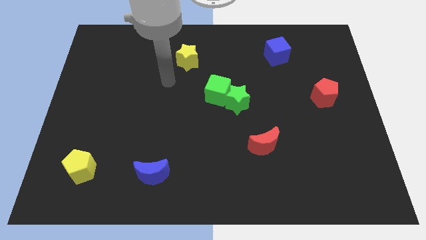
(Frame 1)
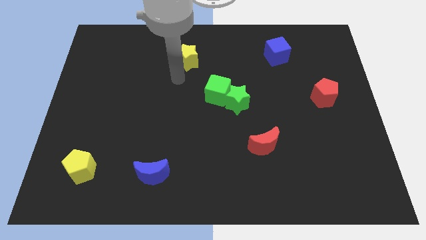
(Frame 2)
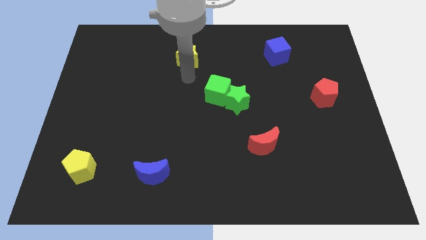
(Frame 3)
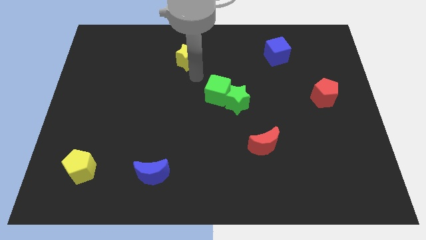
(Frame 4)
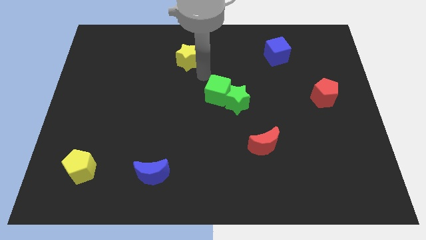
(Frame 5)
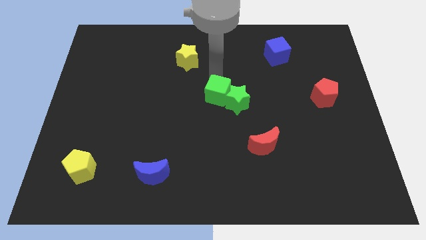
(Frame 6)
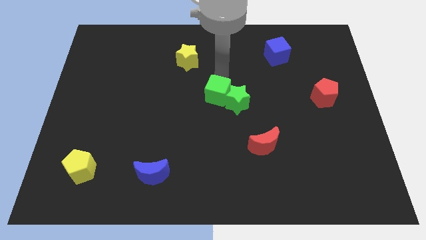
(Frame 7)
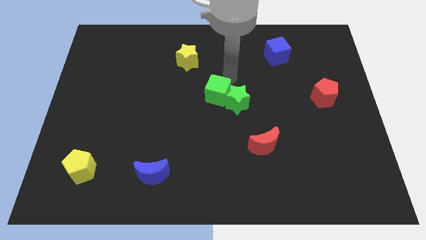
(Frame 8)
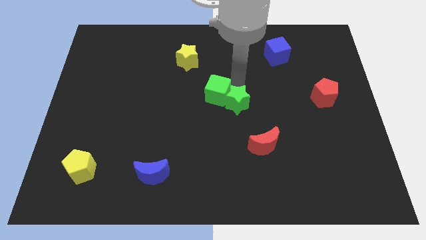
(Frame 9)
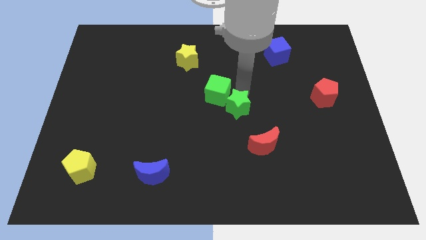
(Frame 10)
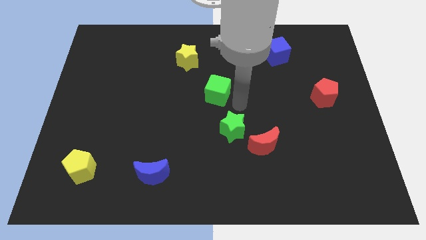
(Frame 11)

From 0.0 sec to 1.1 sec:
separate the green cube from the green star

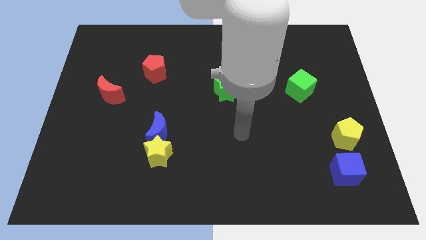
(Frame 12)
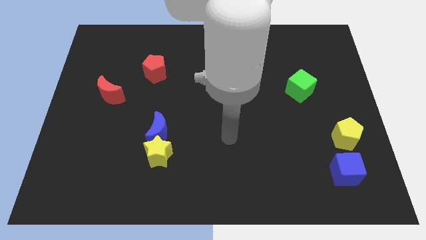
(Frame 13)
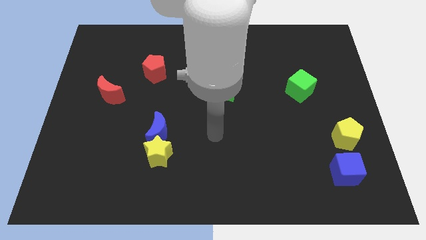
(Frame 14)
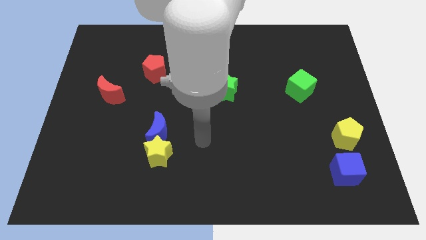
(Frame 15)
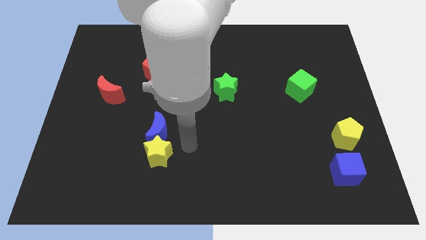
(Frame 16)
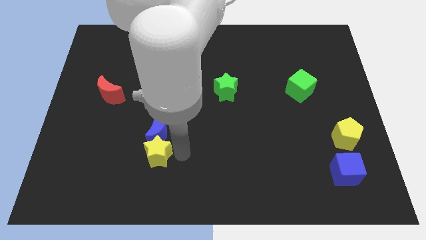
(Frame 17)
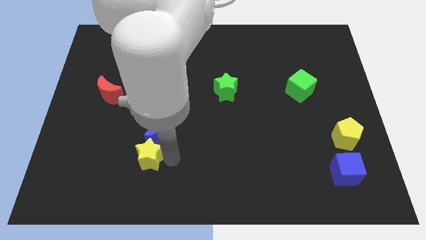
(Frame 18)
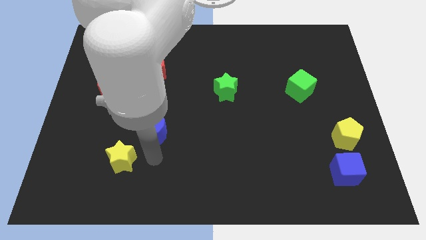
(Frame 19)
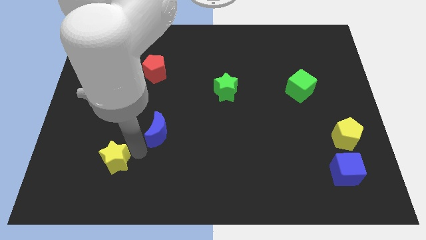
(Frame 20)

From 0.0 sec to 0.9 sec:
pull the blue moon apart from the yellow star

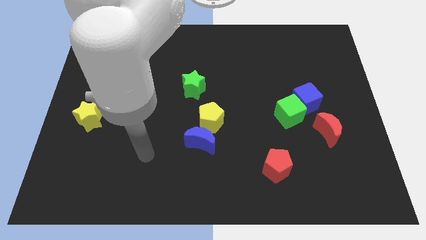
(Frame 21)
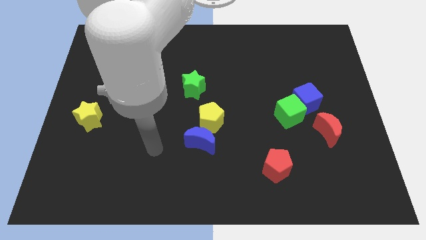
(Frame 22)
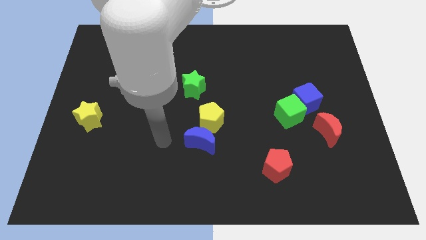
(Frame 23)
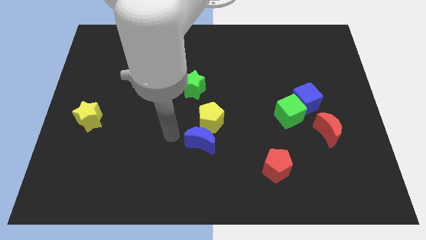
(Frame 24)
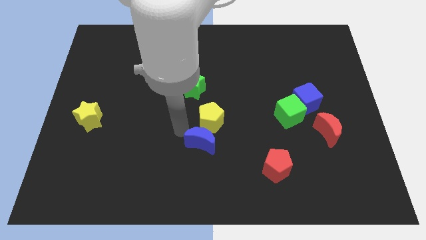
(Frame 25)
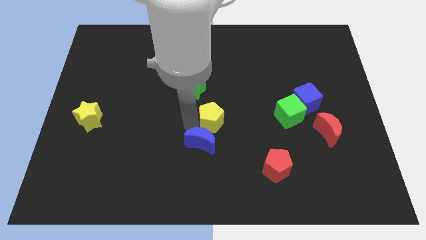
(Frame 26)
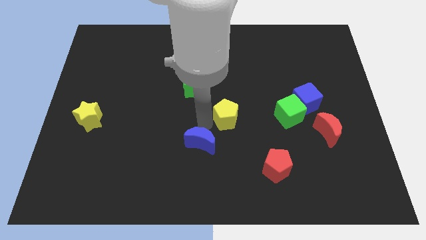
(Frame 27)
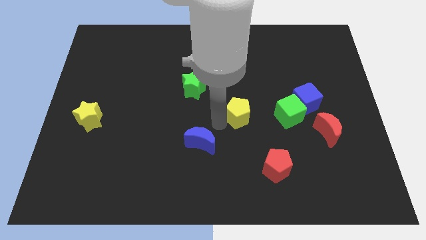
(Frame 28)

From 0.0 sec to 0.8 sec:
pull the blue moon apart from the yellow pentagon

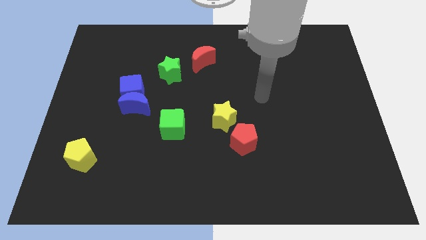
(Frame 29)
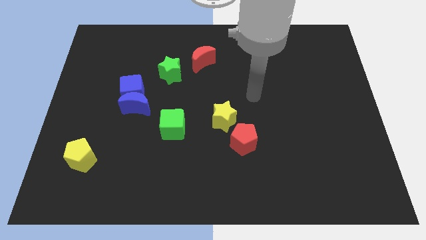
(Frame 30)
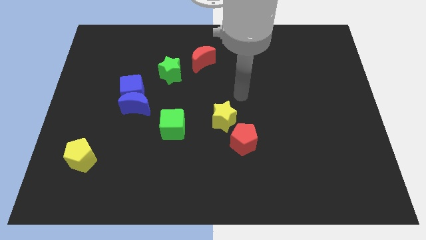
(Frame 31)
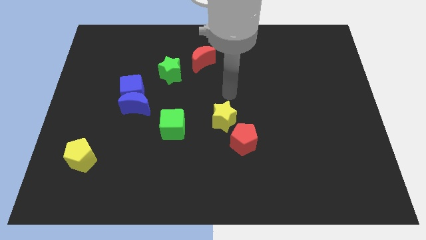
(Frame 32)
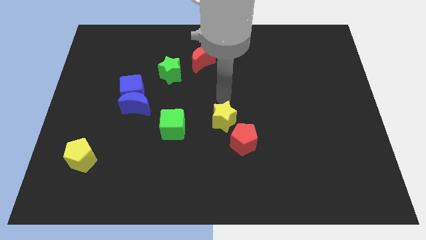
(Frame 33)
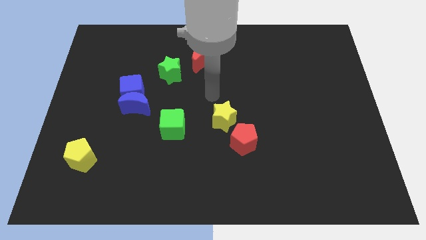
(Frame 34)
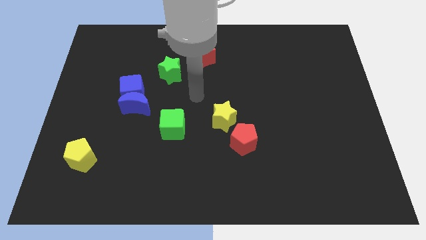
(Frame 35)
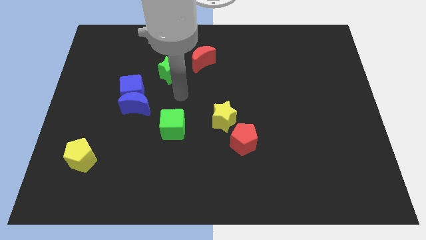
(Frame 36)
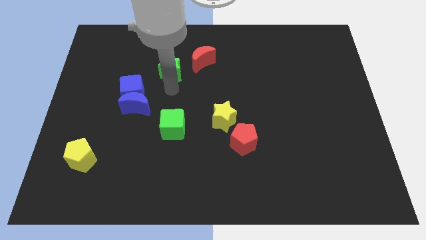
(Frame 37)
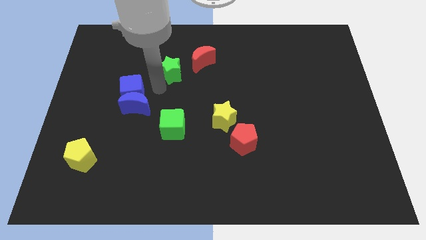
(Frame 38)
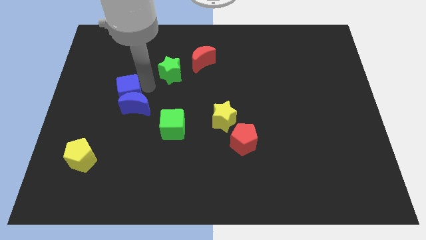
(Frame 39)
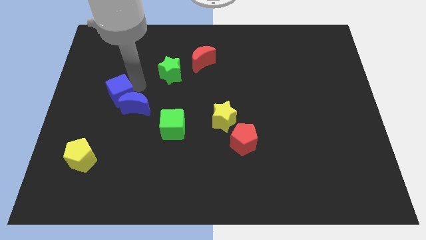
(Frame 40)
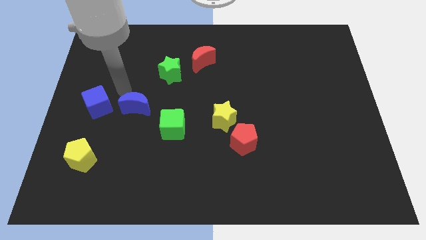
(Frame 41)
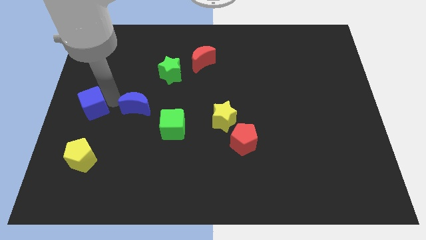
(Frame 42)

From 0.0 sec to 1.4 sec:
move the blue moon away from the blue cube

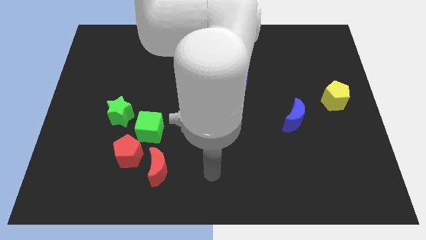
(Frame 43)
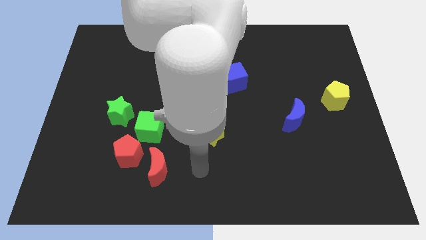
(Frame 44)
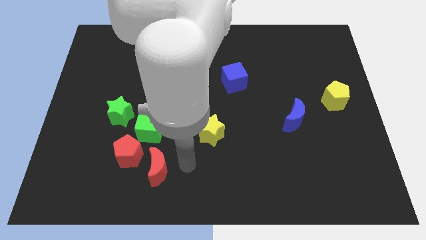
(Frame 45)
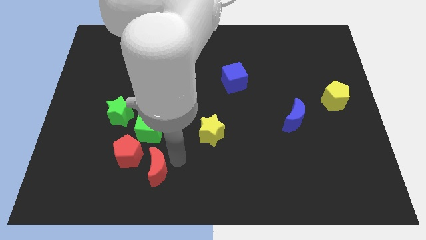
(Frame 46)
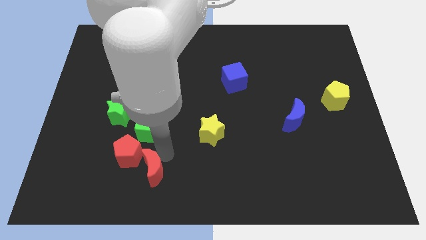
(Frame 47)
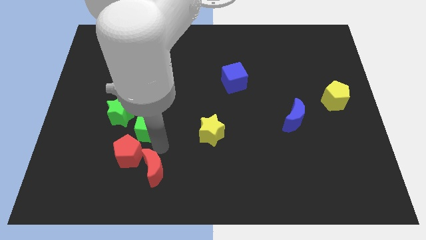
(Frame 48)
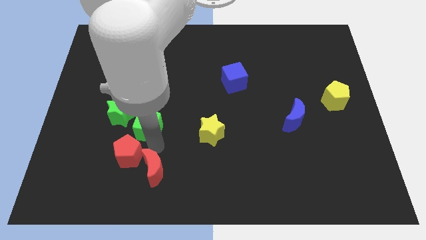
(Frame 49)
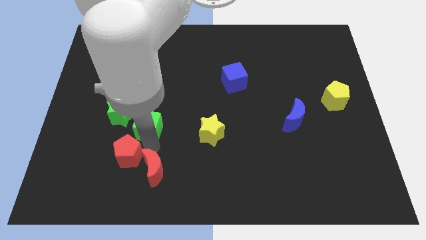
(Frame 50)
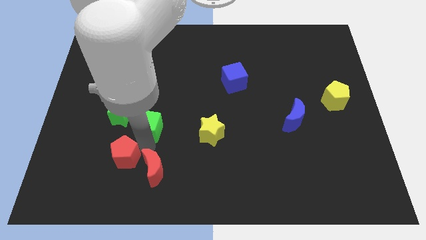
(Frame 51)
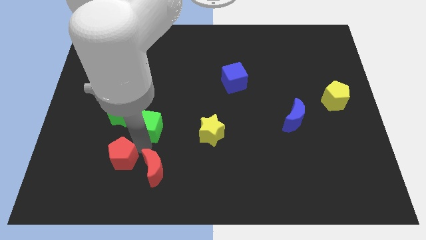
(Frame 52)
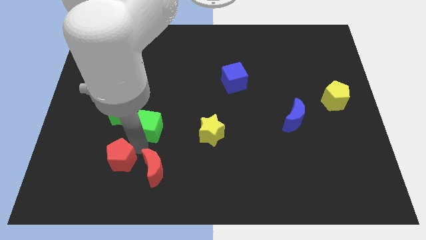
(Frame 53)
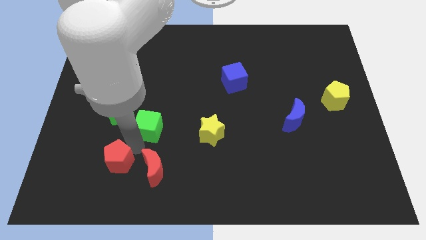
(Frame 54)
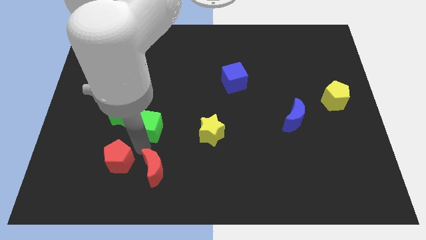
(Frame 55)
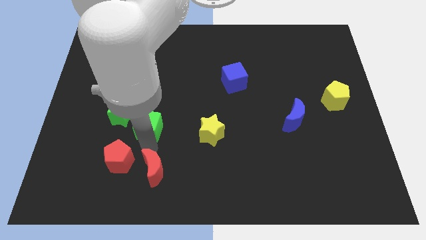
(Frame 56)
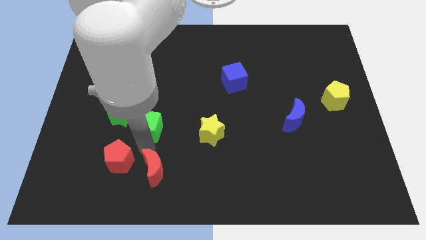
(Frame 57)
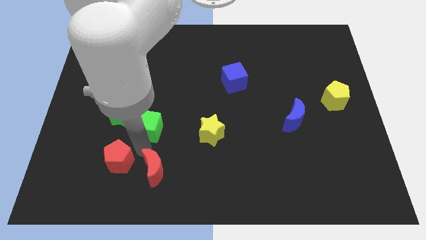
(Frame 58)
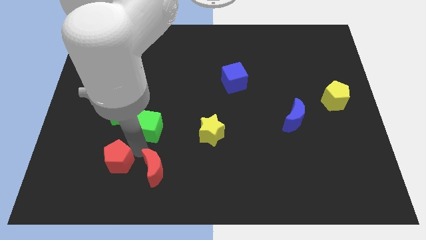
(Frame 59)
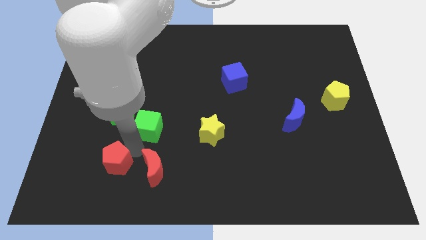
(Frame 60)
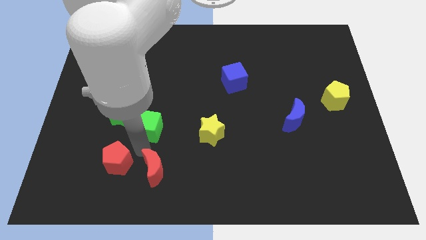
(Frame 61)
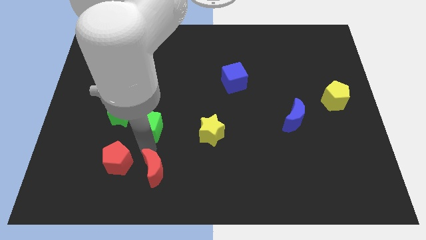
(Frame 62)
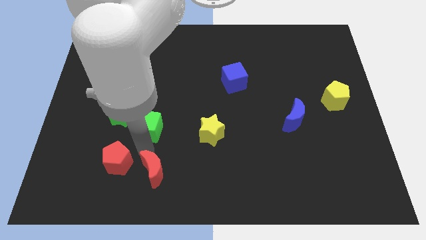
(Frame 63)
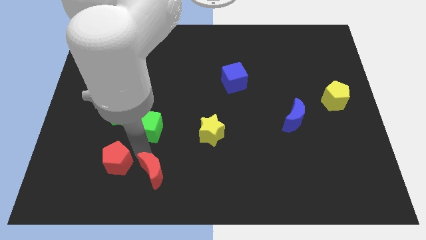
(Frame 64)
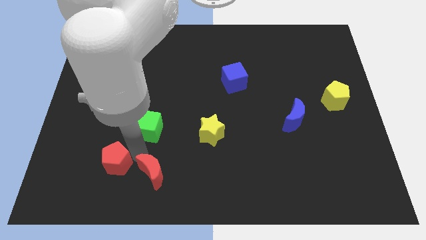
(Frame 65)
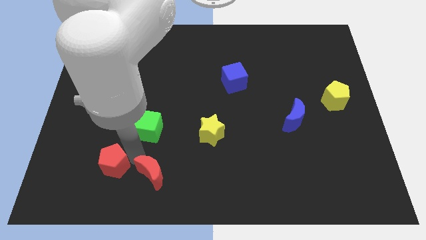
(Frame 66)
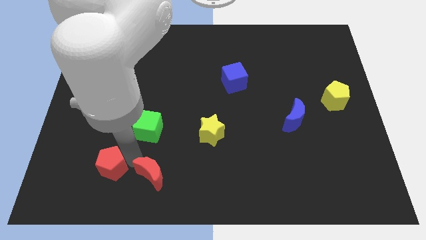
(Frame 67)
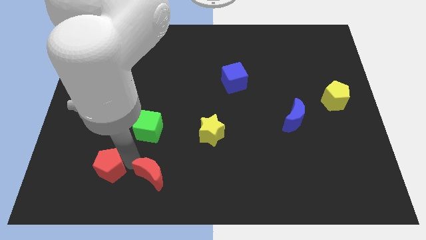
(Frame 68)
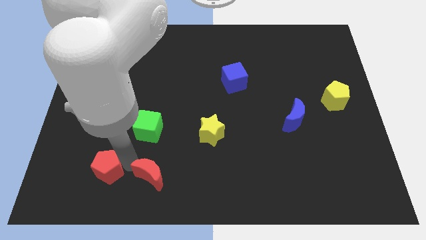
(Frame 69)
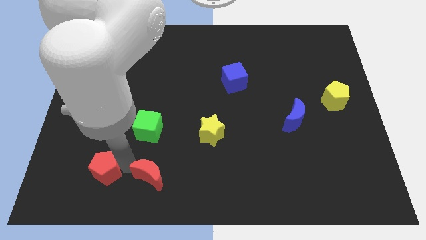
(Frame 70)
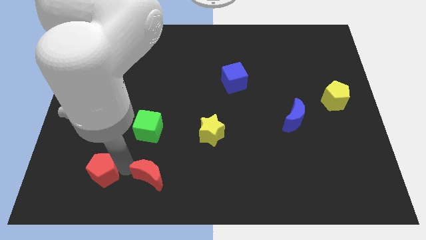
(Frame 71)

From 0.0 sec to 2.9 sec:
separate the red pentagon from the red moon and green cube

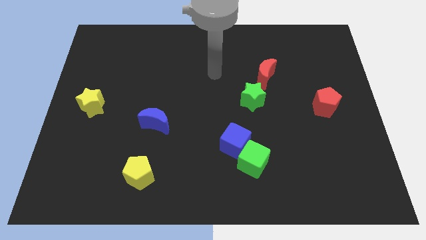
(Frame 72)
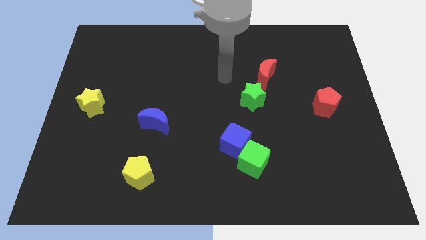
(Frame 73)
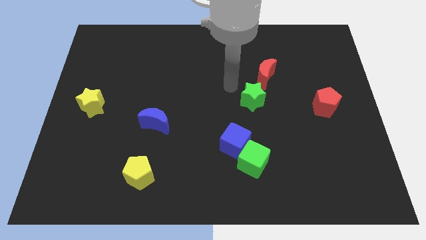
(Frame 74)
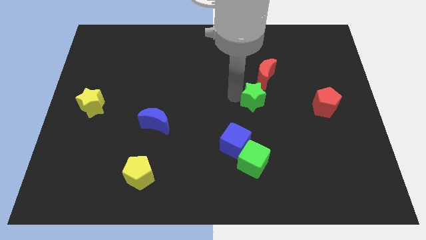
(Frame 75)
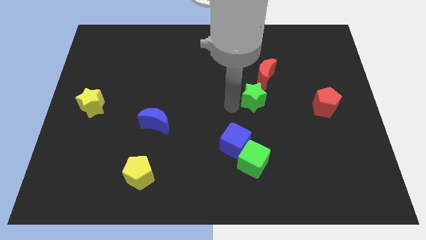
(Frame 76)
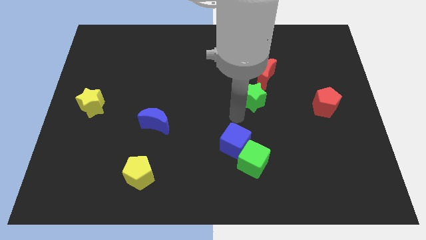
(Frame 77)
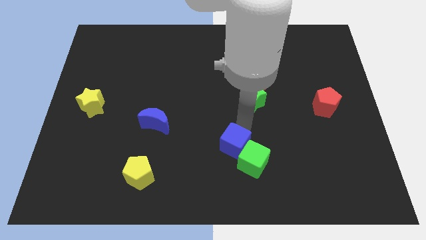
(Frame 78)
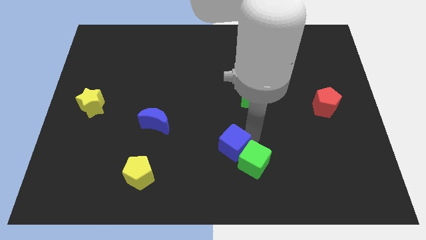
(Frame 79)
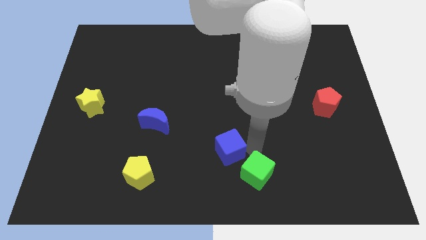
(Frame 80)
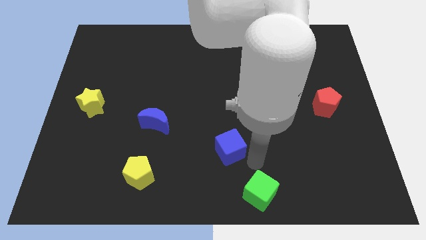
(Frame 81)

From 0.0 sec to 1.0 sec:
pull the blue cube apart from the green cube

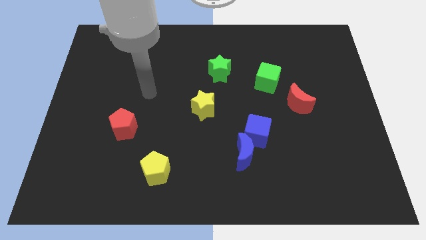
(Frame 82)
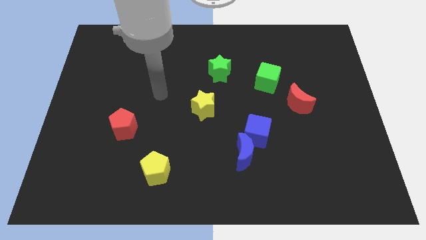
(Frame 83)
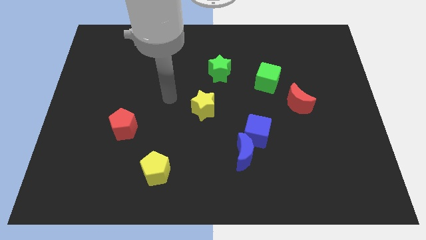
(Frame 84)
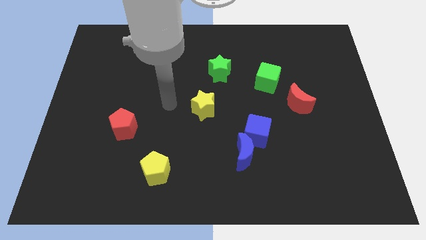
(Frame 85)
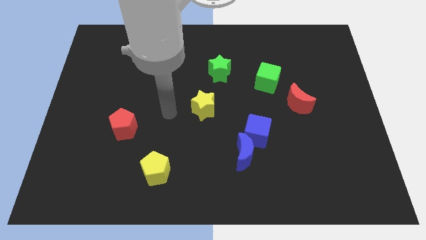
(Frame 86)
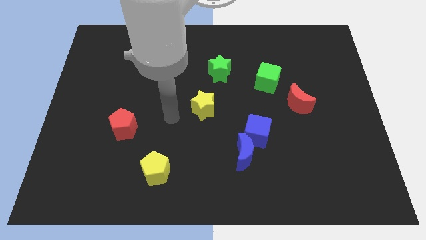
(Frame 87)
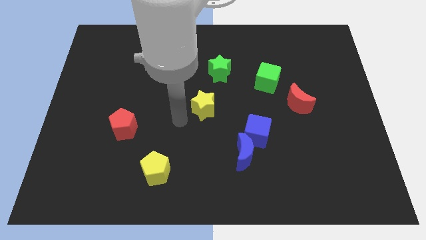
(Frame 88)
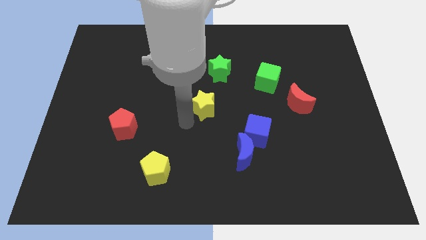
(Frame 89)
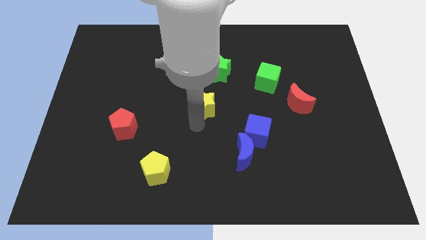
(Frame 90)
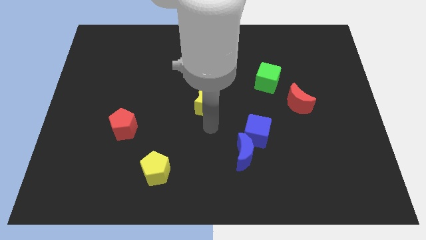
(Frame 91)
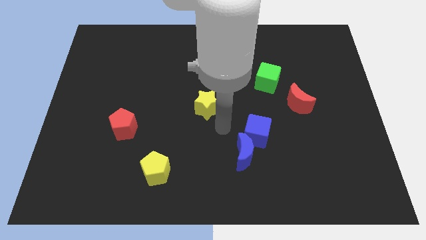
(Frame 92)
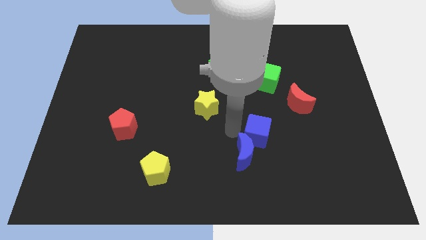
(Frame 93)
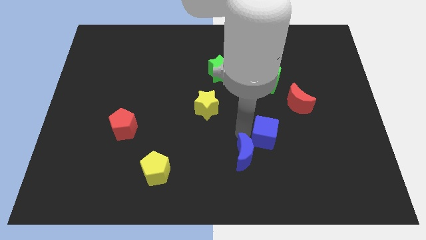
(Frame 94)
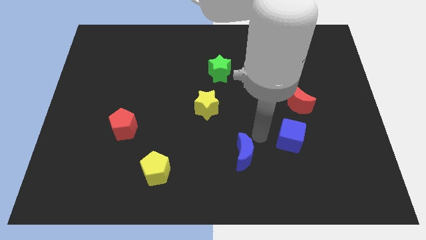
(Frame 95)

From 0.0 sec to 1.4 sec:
separate the blue moon from the blue cube
